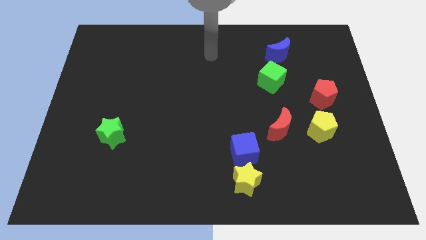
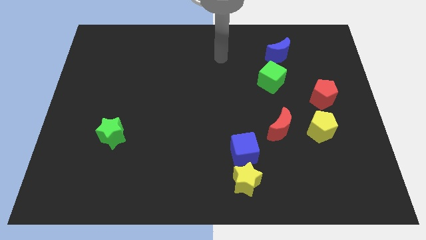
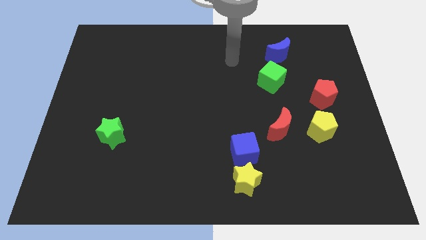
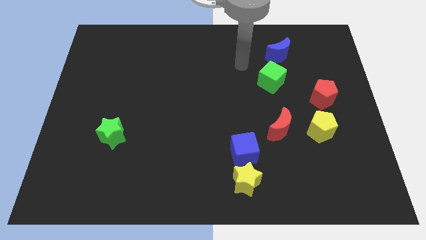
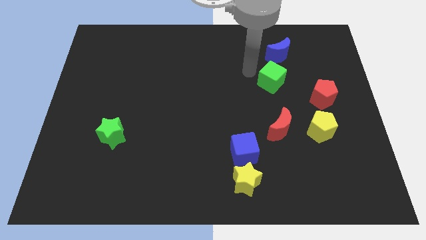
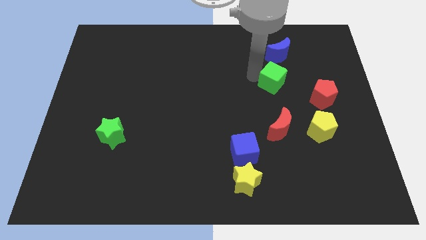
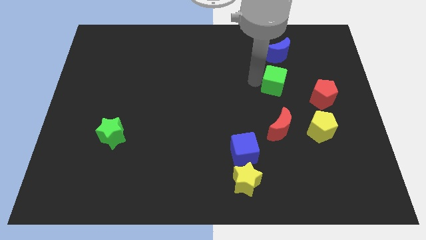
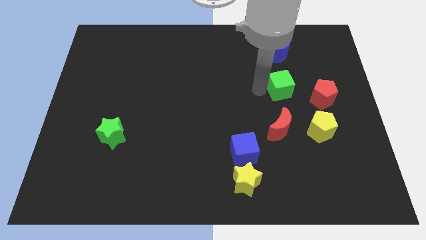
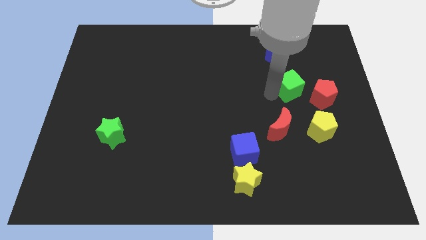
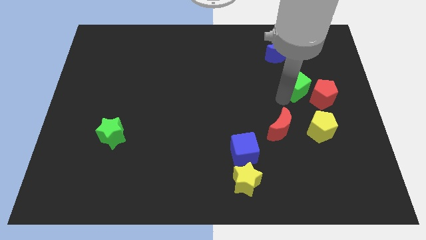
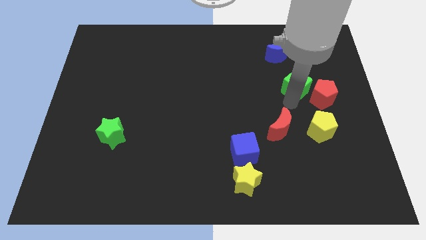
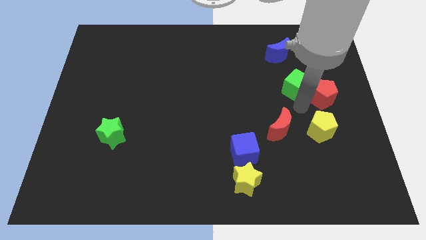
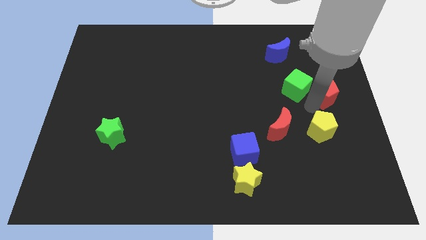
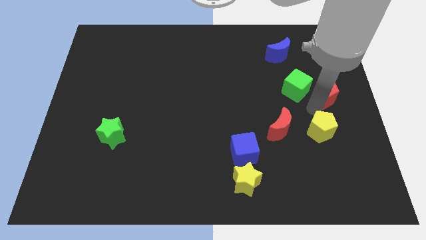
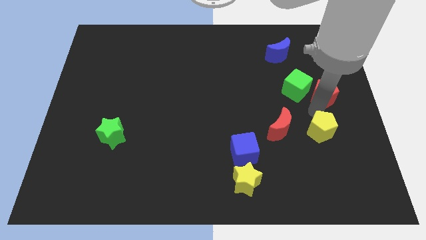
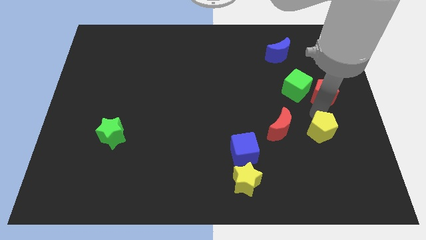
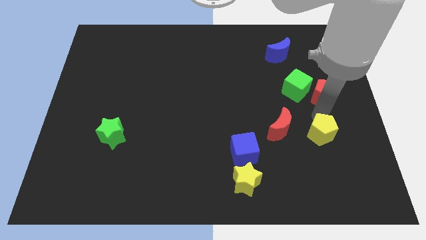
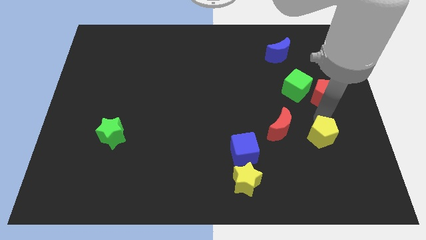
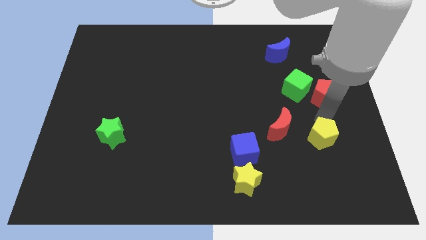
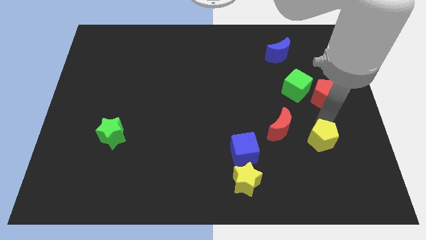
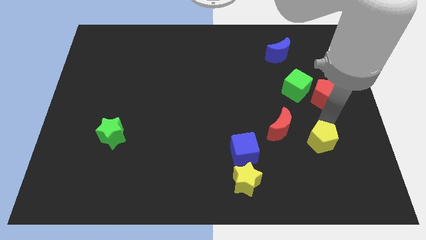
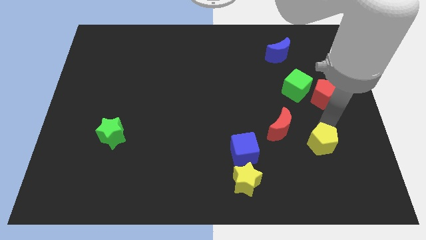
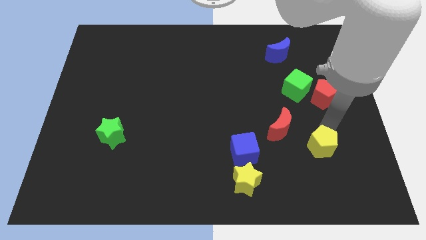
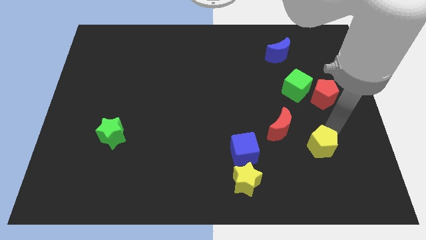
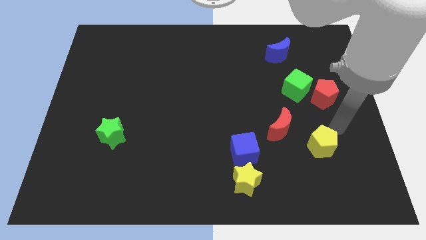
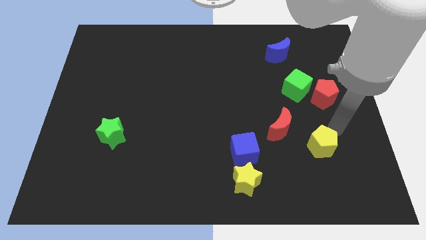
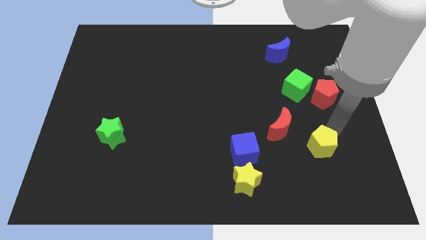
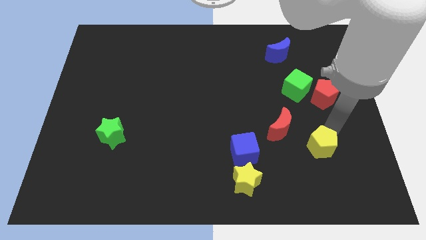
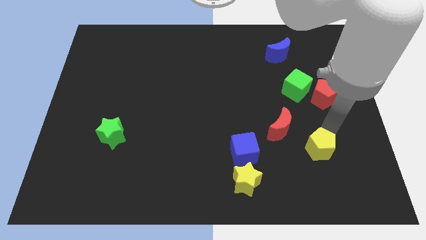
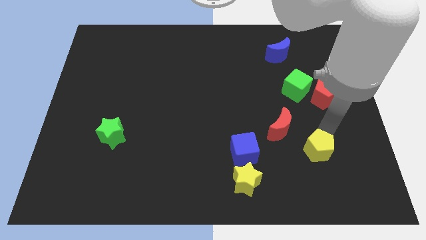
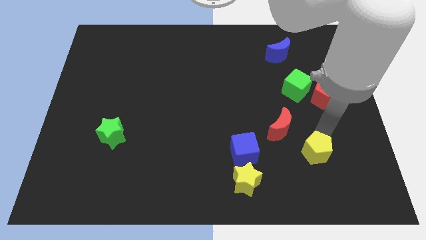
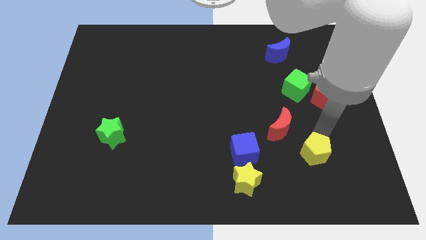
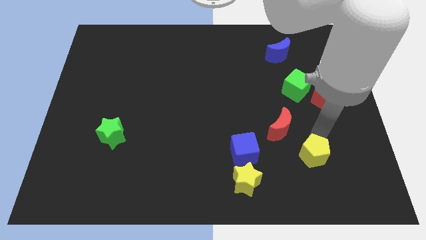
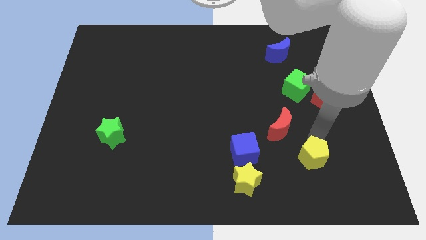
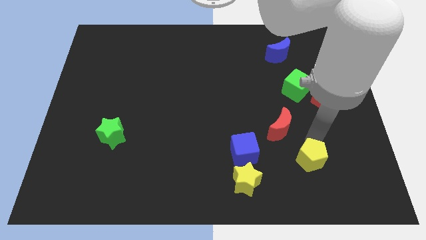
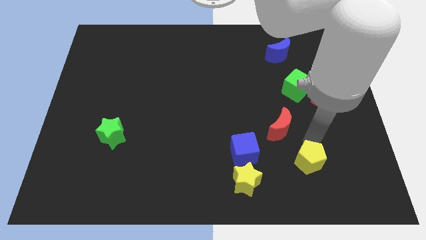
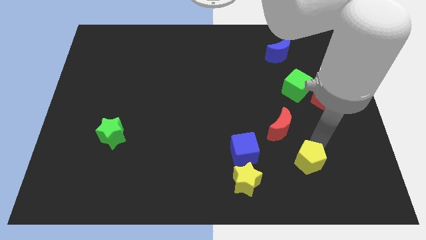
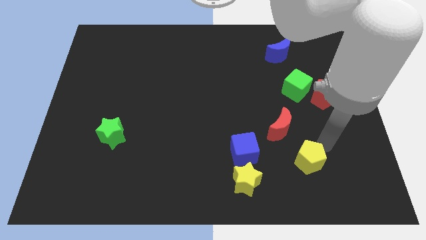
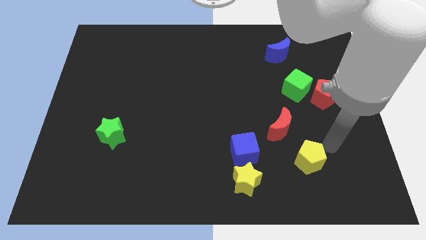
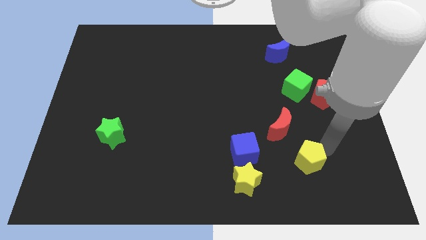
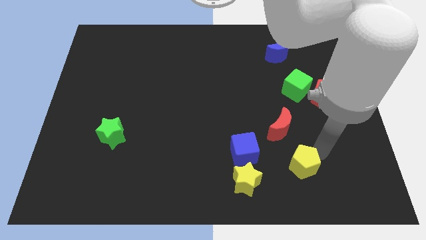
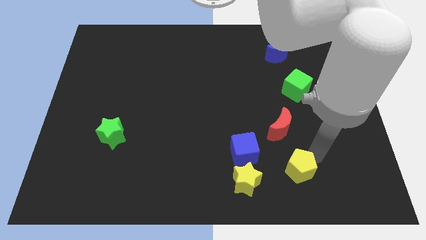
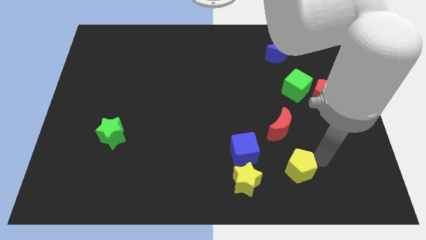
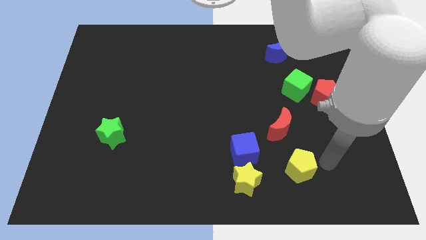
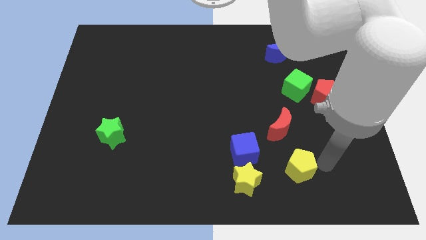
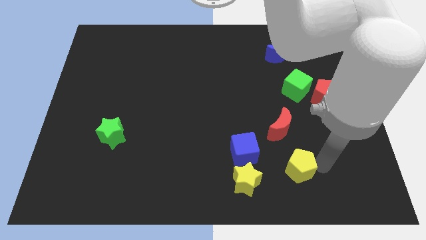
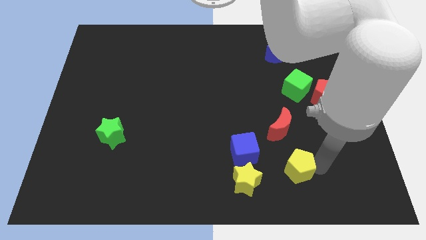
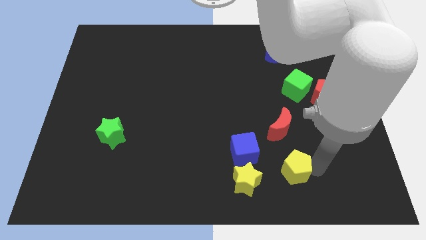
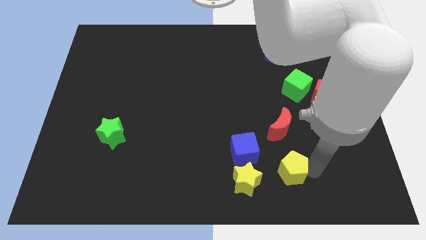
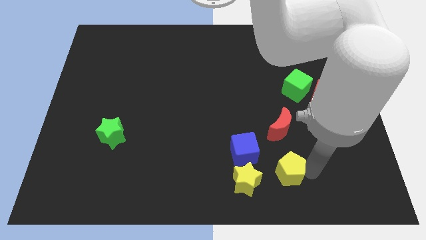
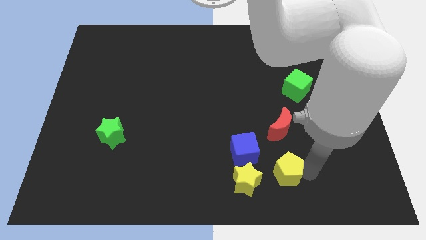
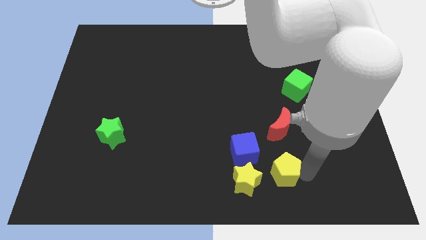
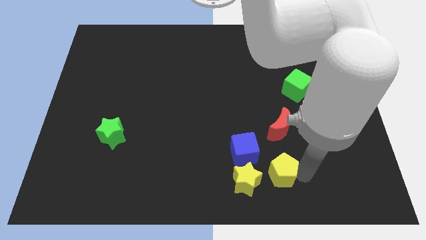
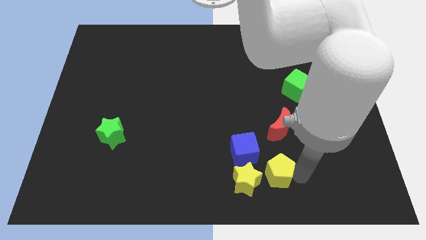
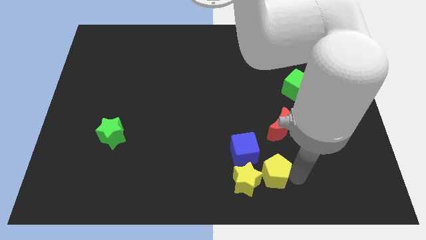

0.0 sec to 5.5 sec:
put the yellow pentagon next to the yellow star

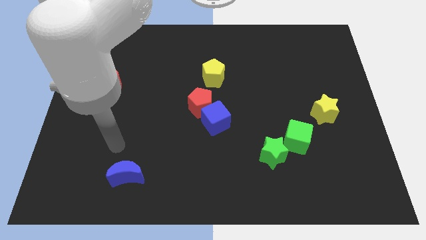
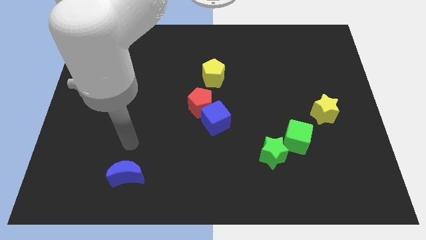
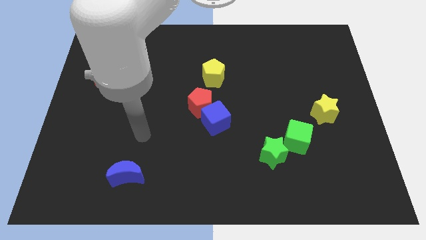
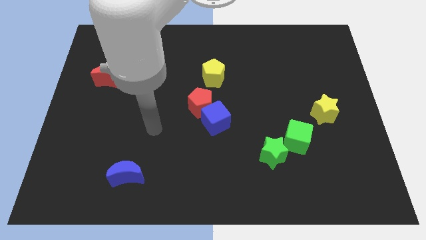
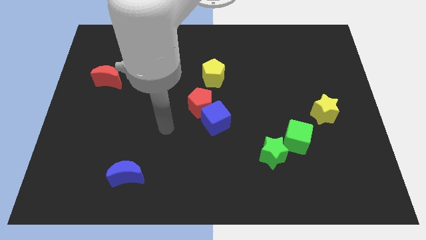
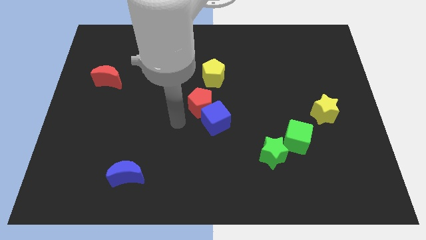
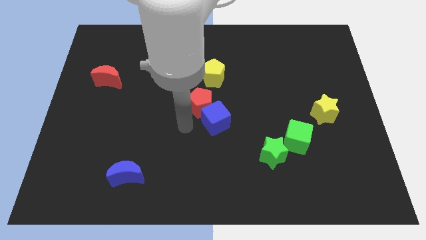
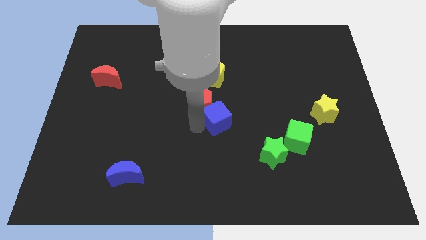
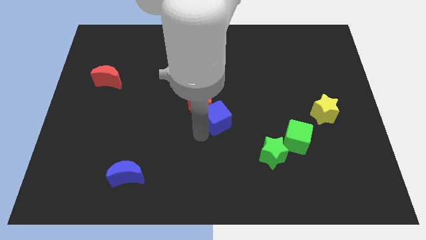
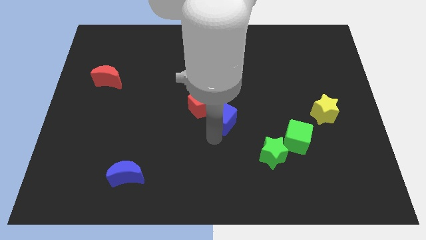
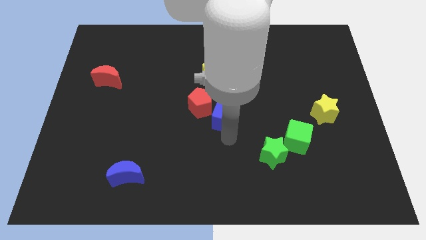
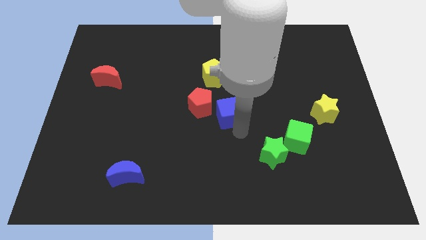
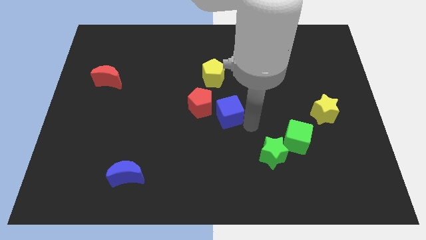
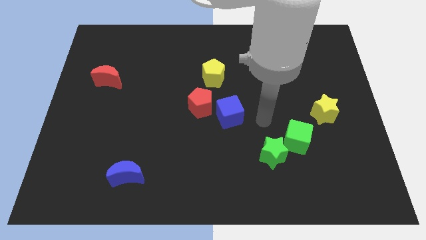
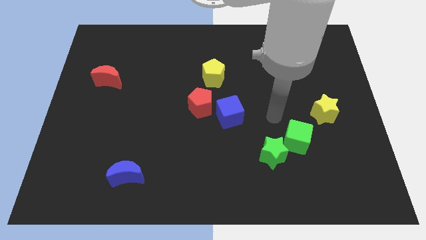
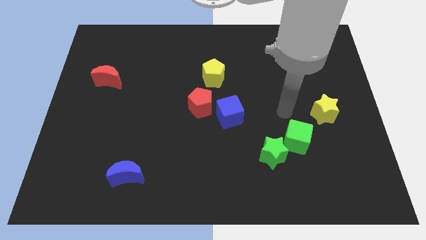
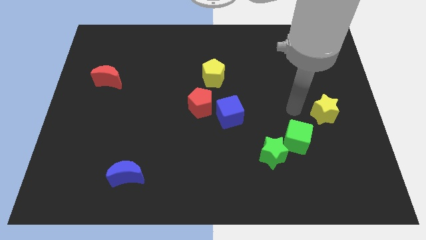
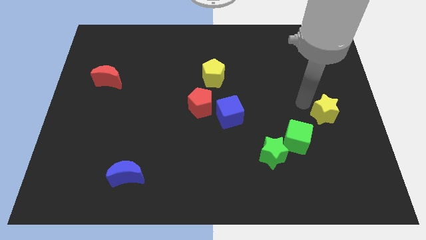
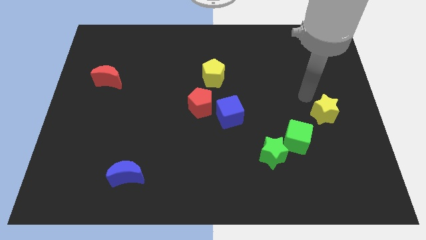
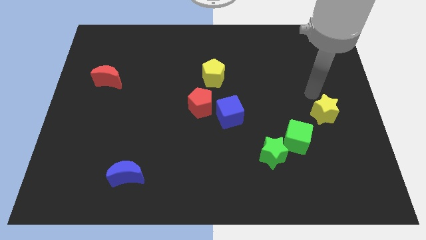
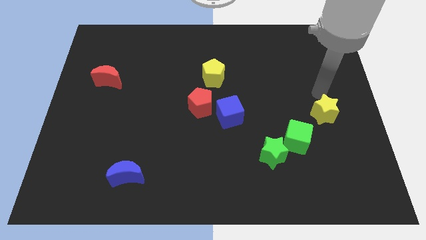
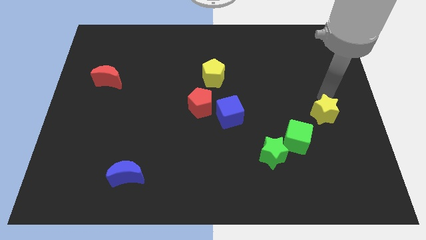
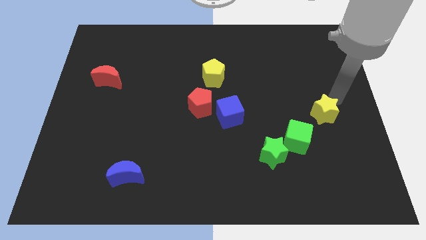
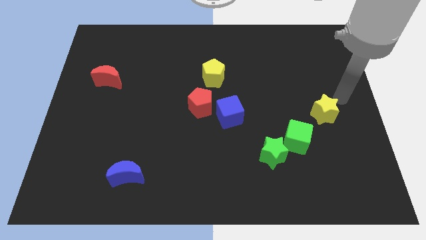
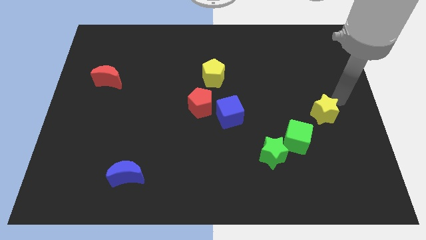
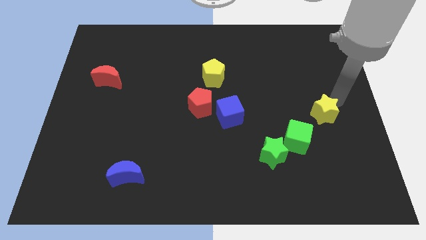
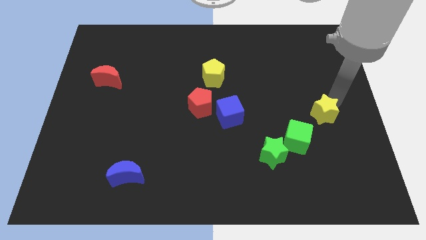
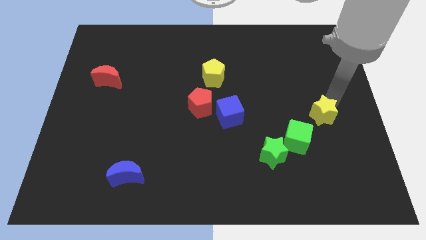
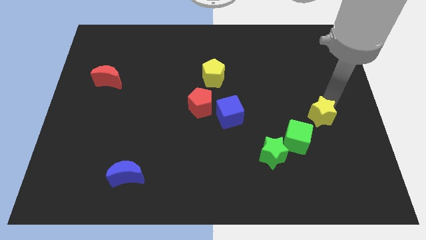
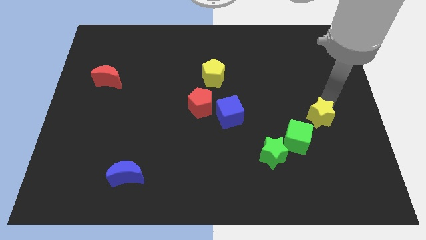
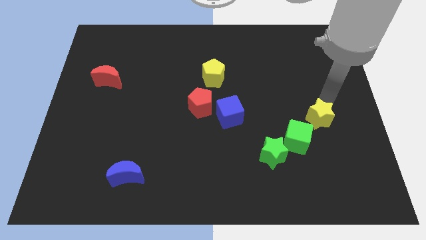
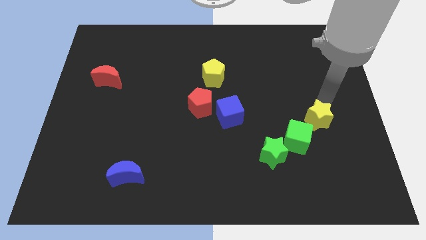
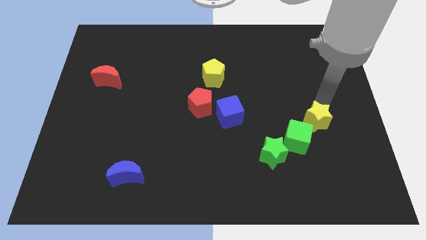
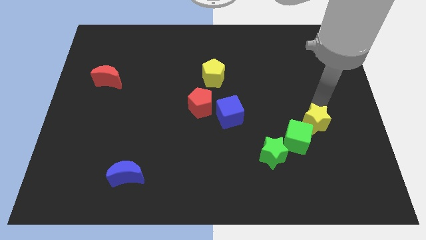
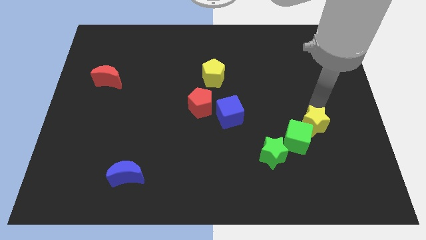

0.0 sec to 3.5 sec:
slide the yellow star towards the green cube
